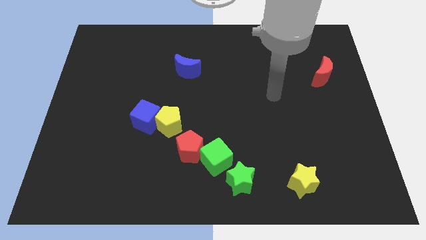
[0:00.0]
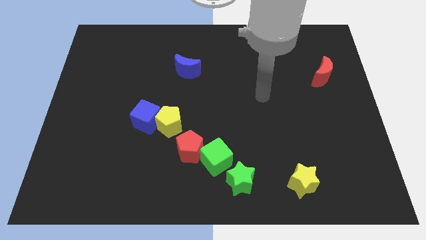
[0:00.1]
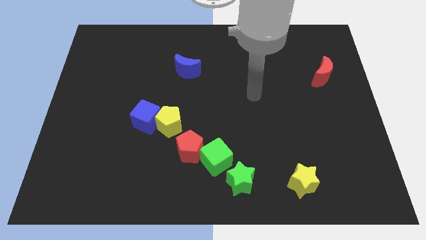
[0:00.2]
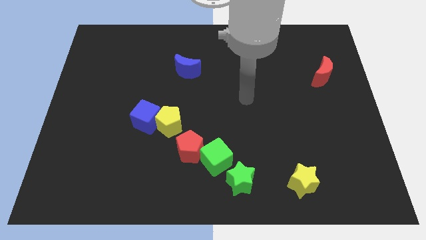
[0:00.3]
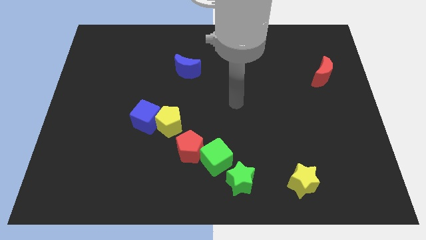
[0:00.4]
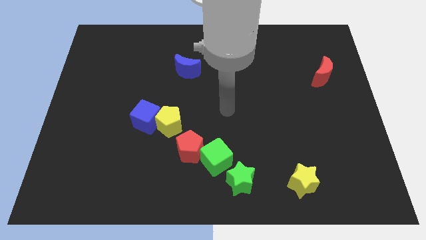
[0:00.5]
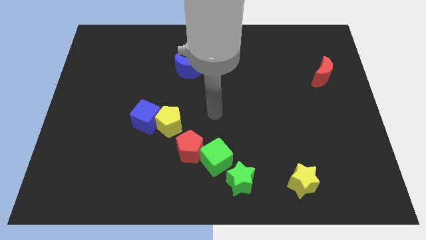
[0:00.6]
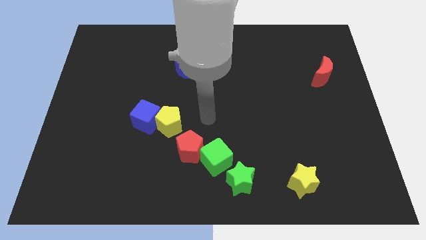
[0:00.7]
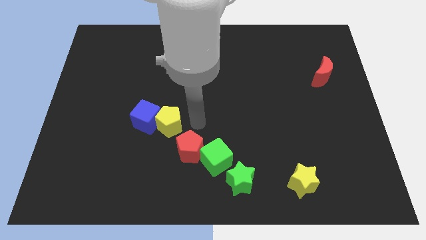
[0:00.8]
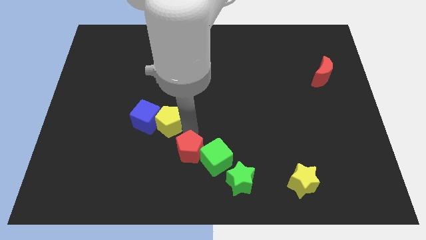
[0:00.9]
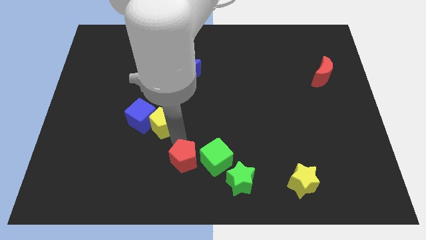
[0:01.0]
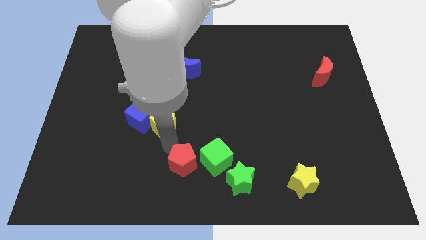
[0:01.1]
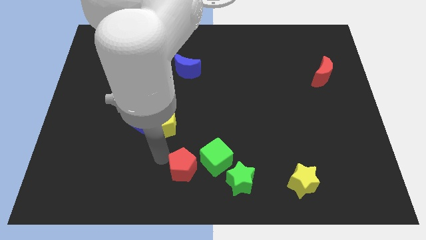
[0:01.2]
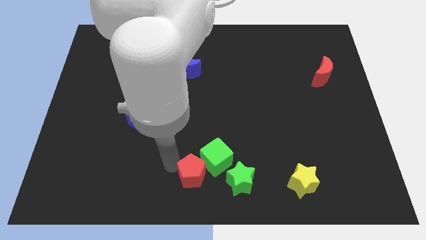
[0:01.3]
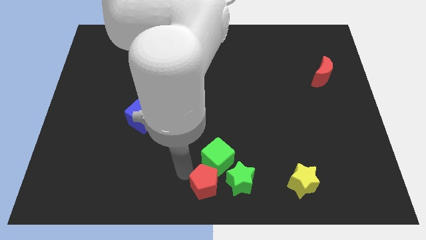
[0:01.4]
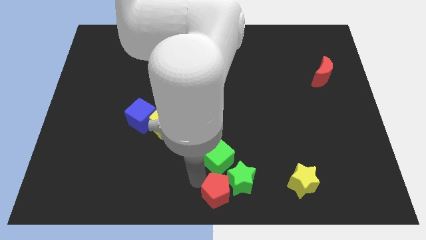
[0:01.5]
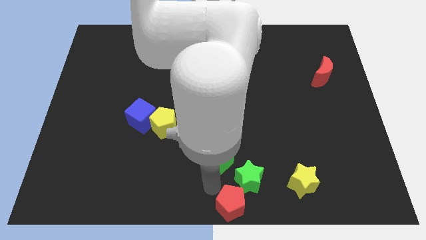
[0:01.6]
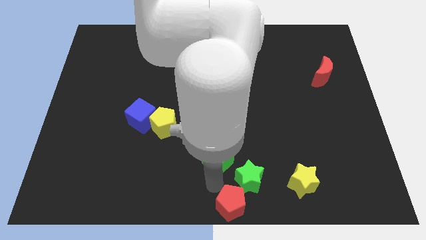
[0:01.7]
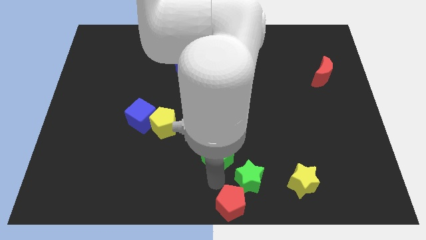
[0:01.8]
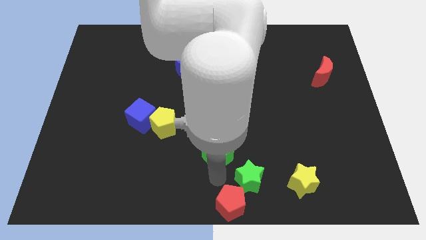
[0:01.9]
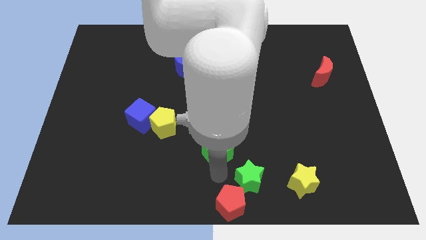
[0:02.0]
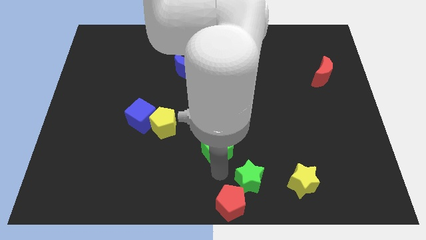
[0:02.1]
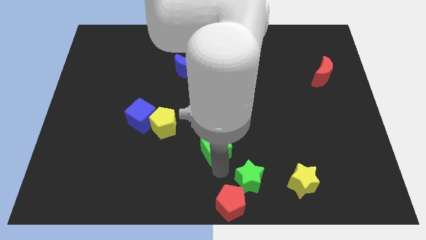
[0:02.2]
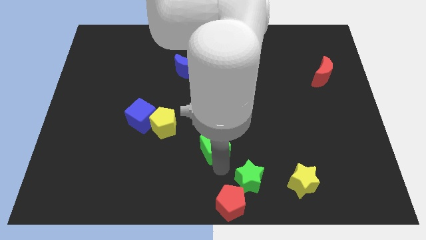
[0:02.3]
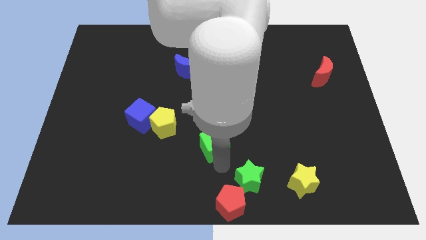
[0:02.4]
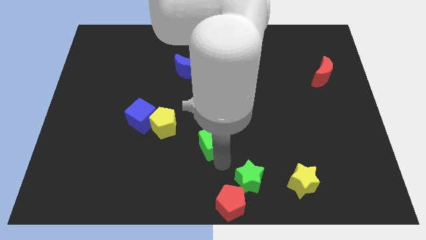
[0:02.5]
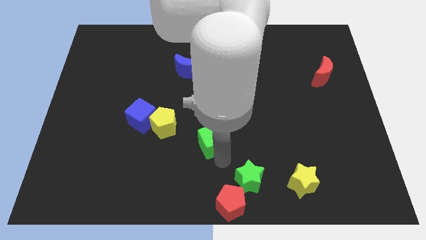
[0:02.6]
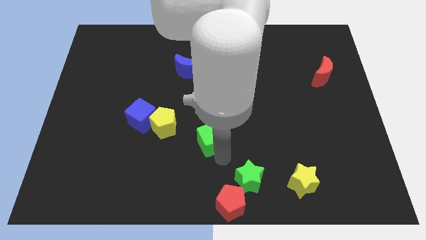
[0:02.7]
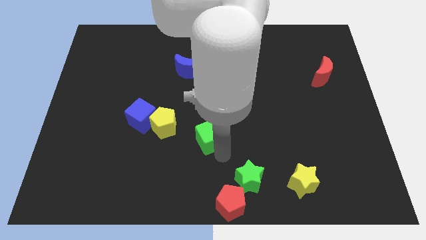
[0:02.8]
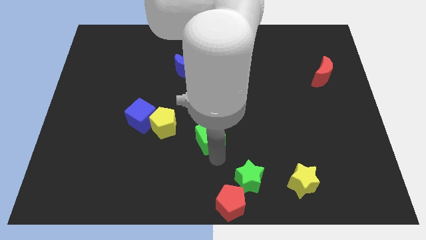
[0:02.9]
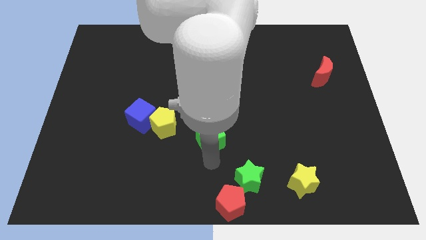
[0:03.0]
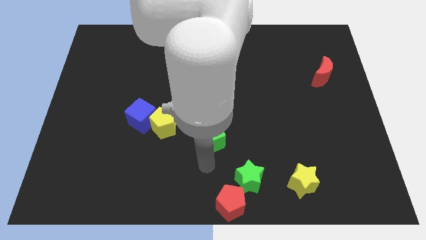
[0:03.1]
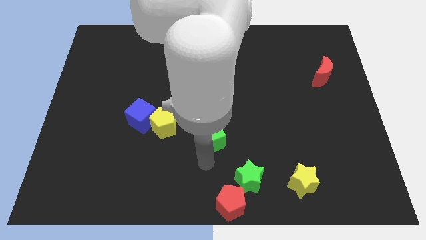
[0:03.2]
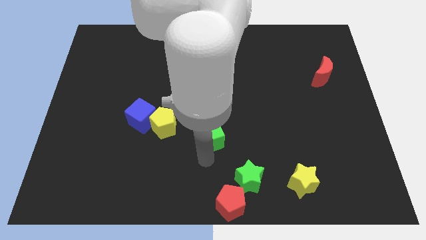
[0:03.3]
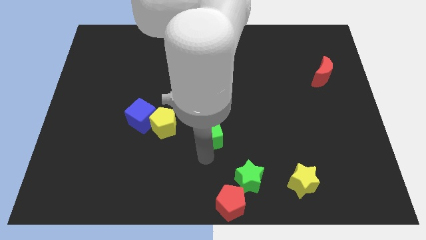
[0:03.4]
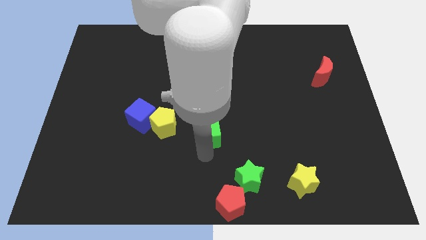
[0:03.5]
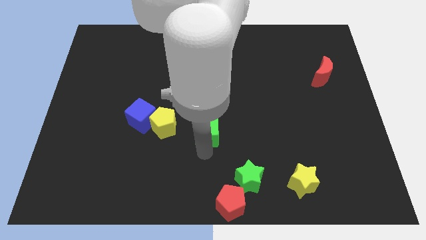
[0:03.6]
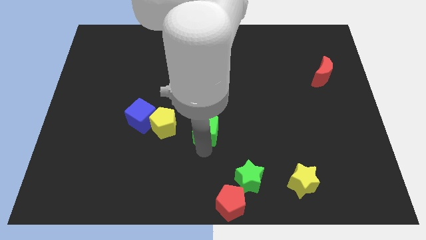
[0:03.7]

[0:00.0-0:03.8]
slide the green cube upwards a little

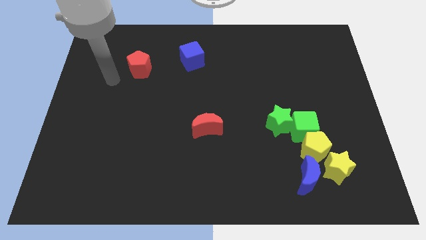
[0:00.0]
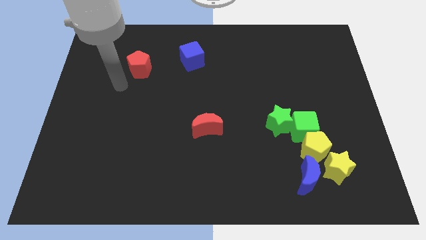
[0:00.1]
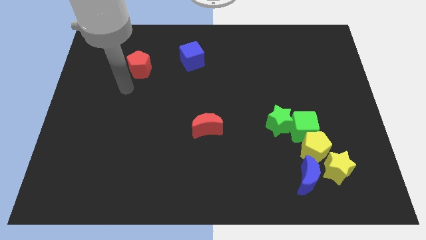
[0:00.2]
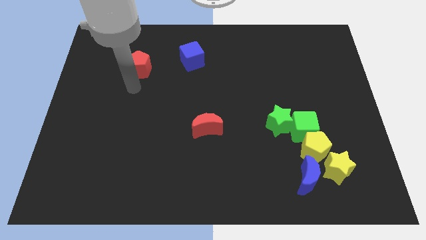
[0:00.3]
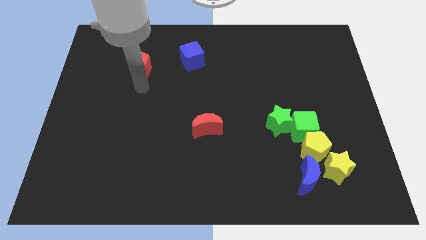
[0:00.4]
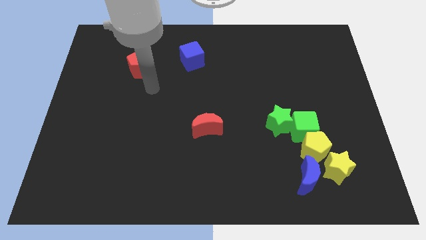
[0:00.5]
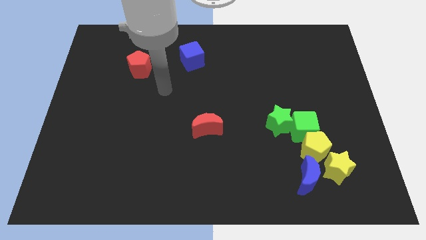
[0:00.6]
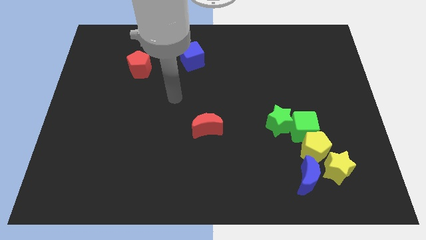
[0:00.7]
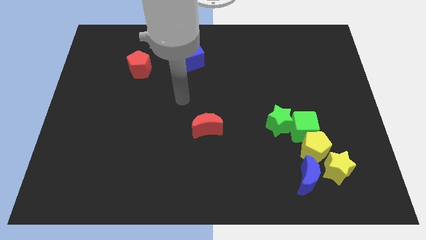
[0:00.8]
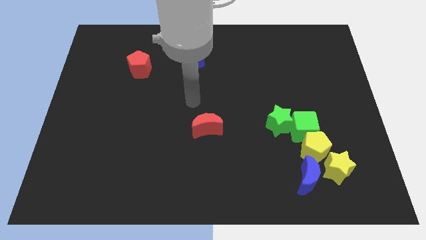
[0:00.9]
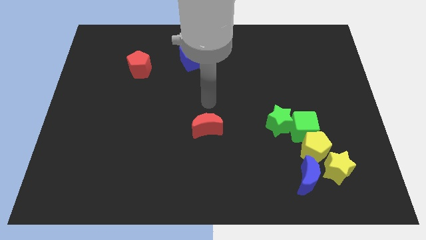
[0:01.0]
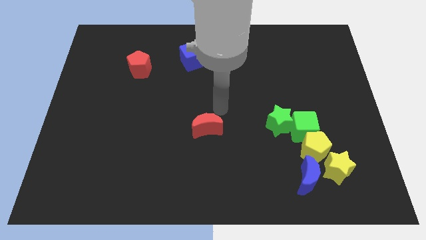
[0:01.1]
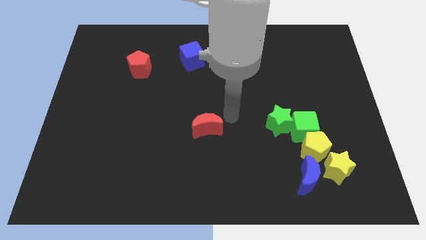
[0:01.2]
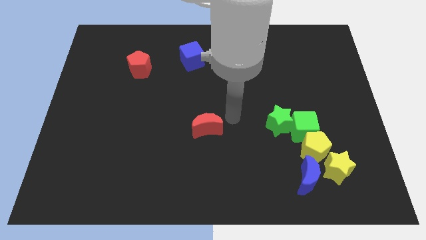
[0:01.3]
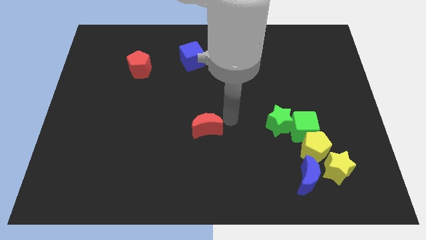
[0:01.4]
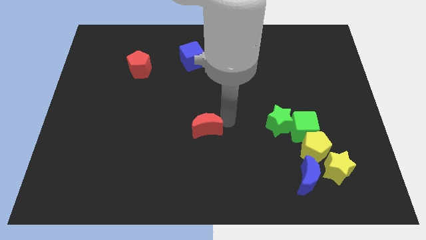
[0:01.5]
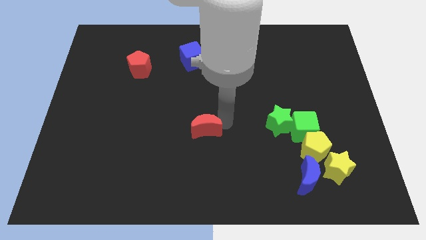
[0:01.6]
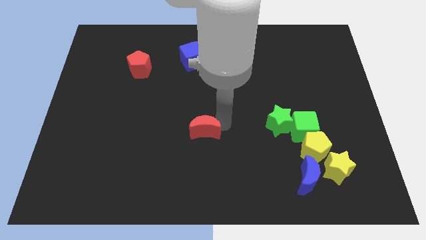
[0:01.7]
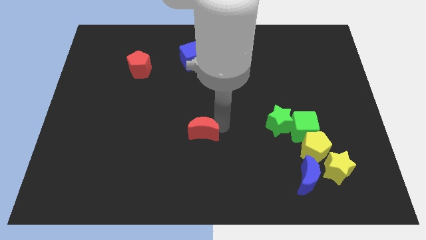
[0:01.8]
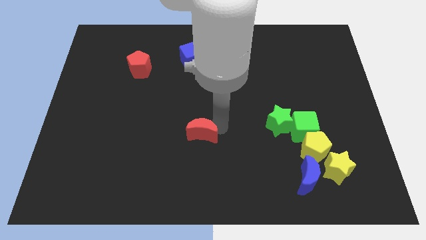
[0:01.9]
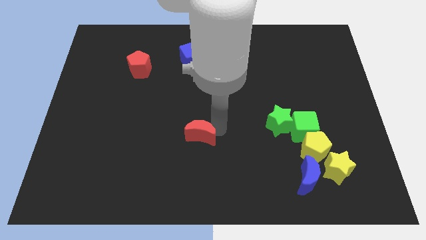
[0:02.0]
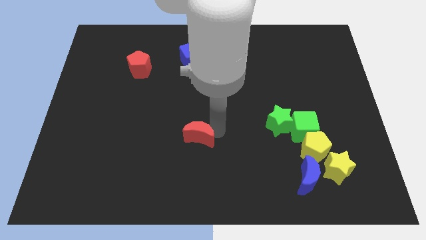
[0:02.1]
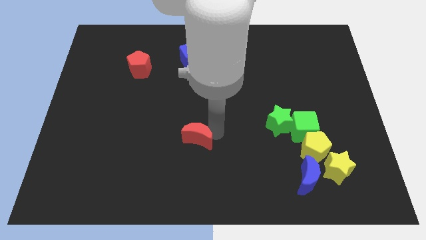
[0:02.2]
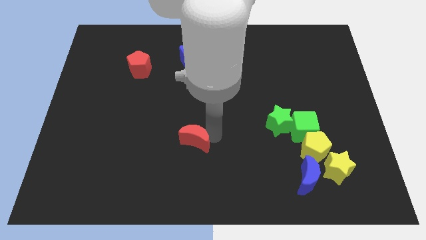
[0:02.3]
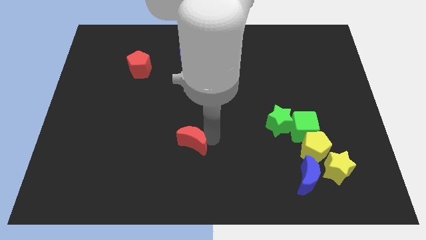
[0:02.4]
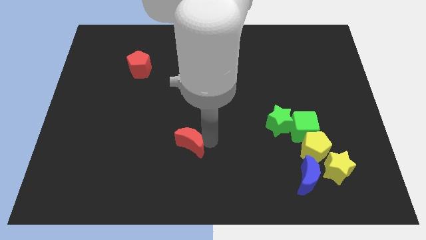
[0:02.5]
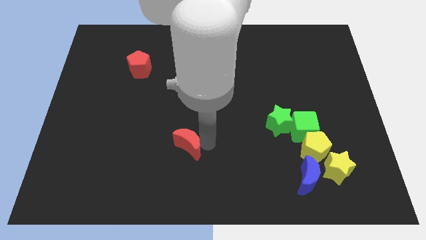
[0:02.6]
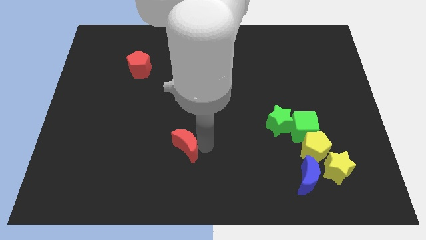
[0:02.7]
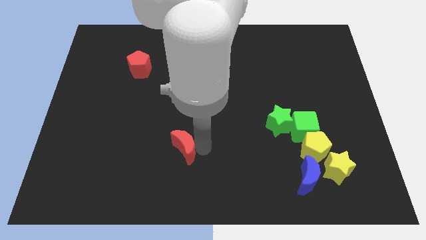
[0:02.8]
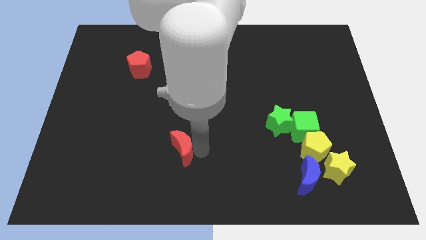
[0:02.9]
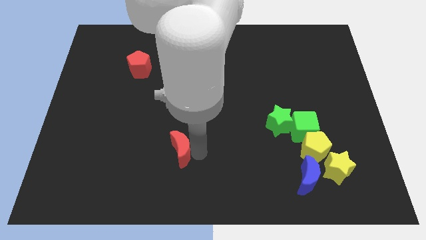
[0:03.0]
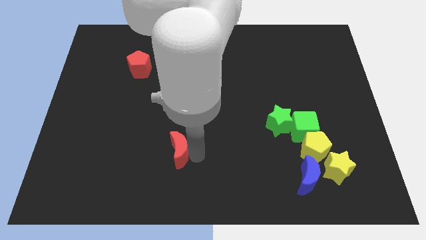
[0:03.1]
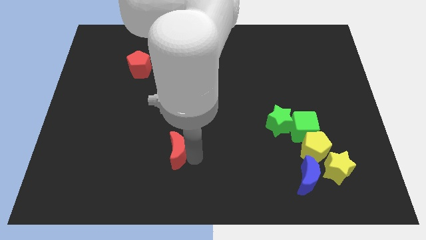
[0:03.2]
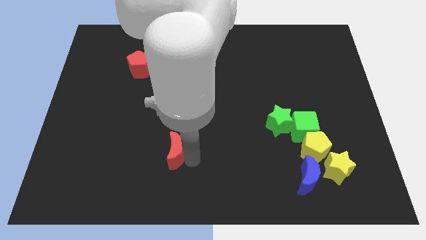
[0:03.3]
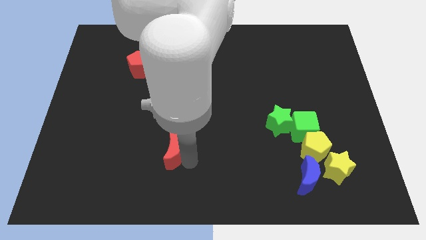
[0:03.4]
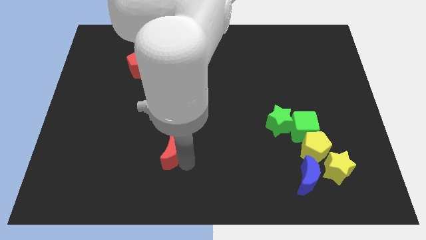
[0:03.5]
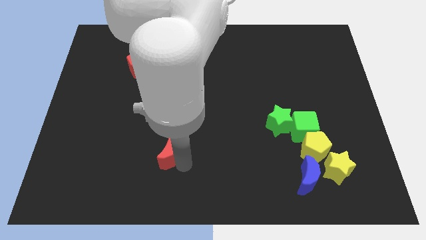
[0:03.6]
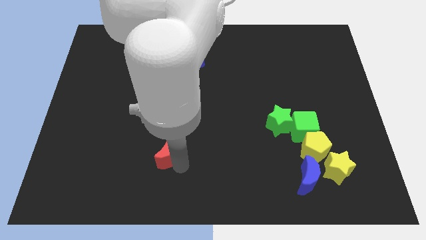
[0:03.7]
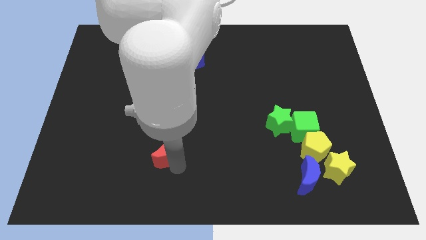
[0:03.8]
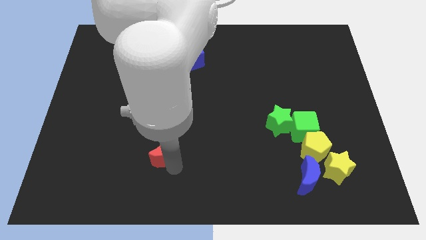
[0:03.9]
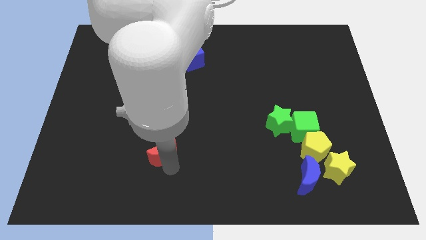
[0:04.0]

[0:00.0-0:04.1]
move the red moon a little to the left

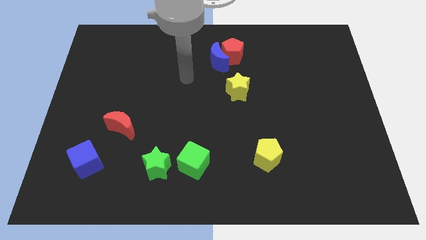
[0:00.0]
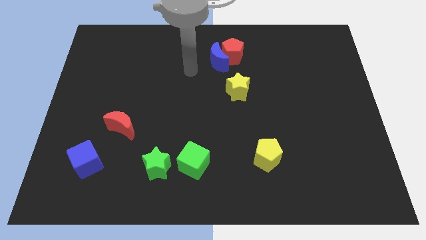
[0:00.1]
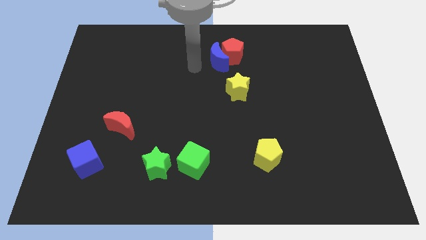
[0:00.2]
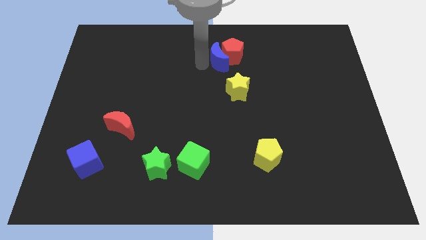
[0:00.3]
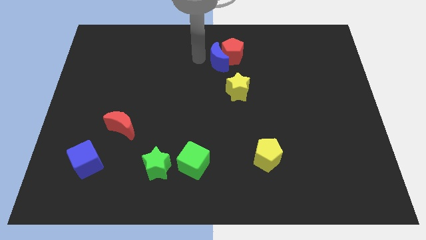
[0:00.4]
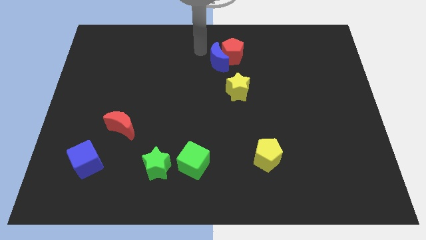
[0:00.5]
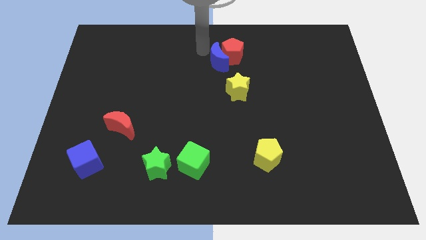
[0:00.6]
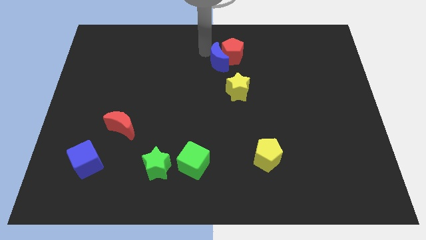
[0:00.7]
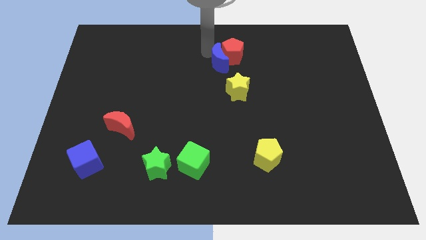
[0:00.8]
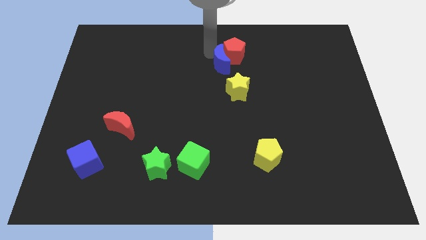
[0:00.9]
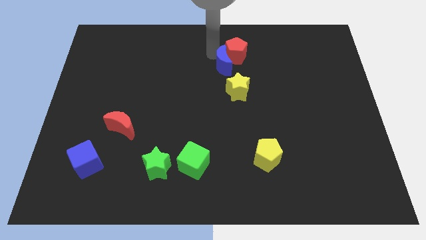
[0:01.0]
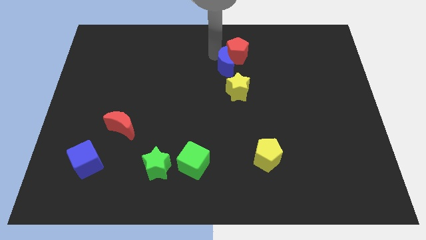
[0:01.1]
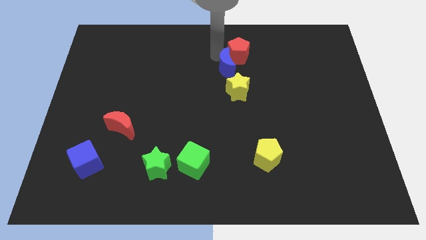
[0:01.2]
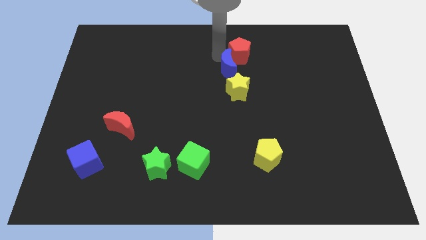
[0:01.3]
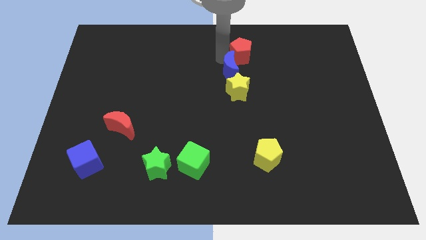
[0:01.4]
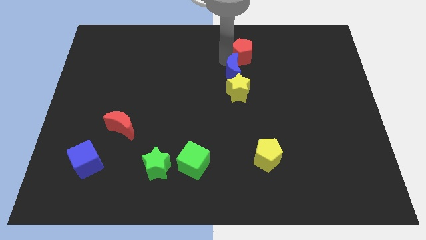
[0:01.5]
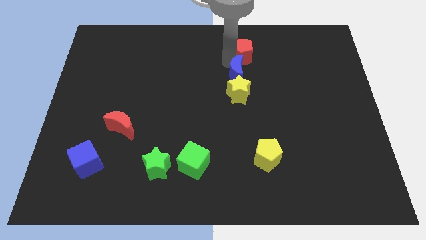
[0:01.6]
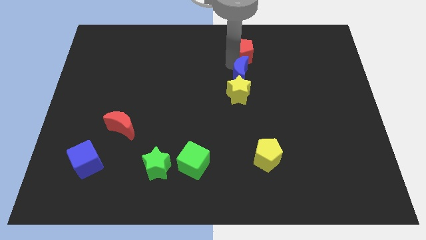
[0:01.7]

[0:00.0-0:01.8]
slide the blue moon downwards and right a little bit
